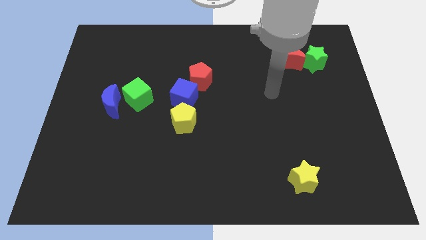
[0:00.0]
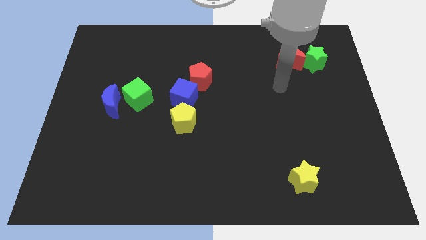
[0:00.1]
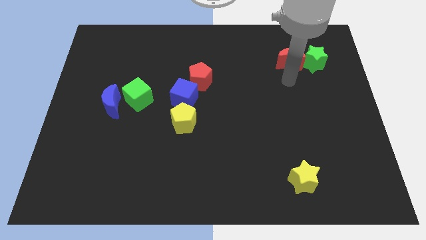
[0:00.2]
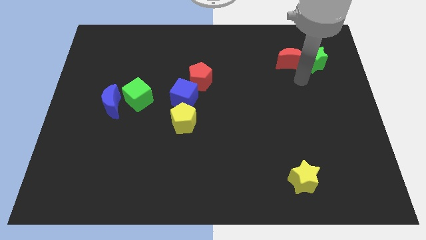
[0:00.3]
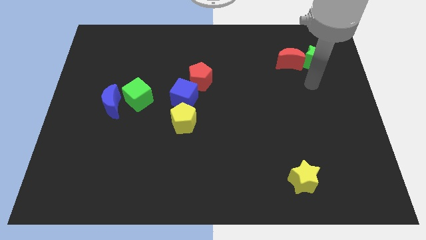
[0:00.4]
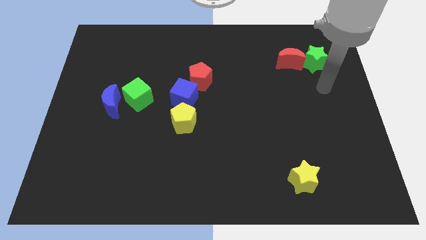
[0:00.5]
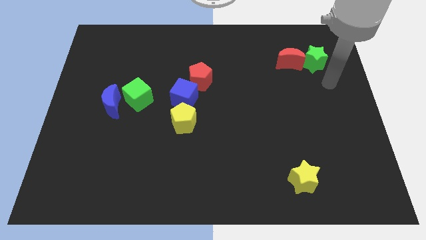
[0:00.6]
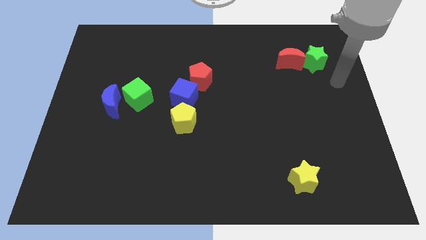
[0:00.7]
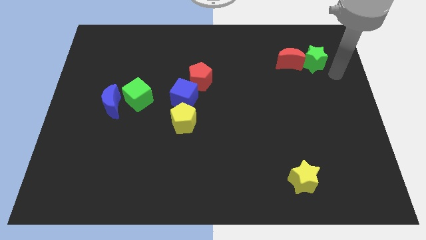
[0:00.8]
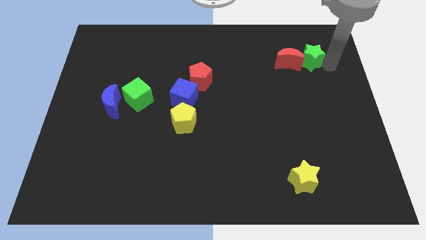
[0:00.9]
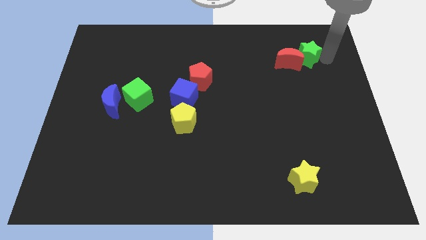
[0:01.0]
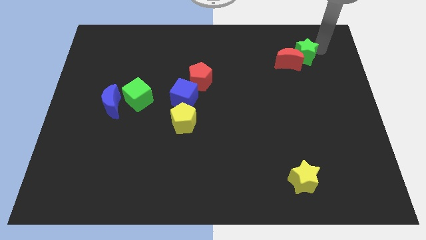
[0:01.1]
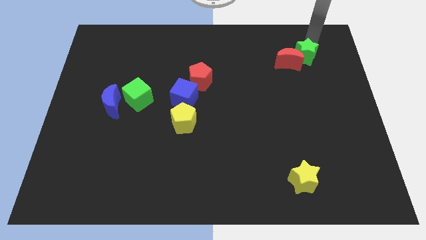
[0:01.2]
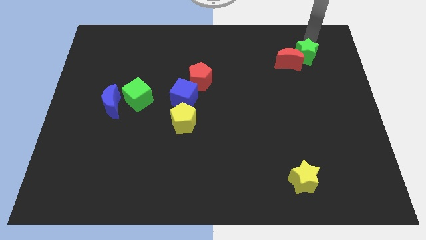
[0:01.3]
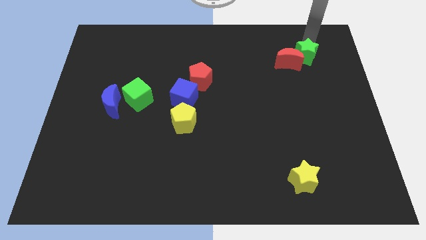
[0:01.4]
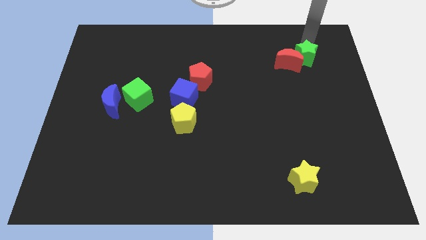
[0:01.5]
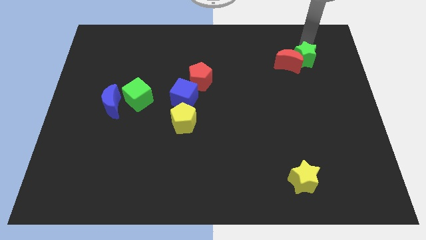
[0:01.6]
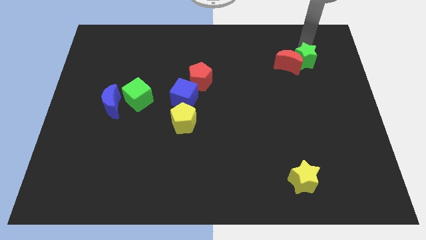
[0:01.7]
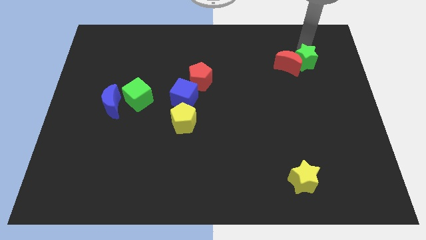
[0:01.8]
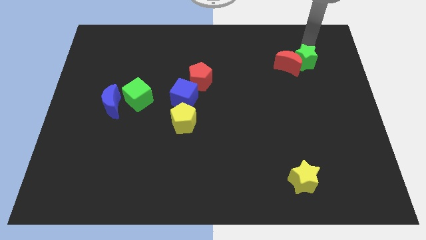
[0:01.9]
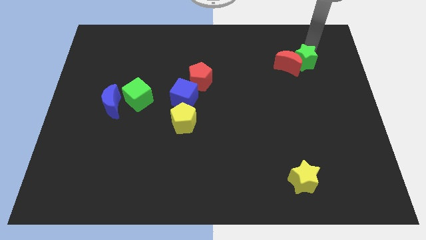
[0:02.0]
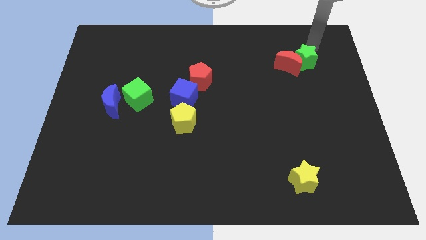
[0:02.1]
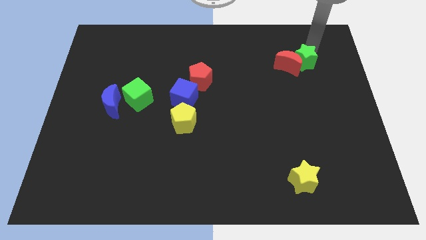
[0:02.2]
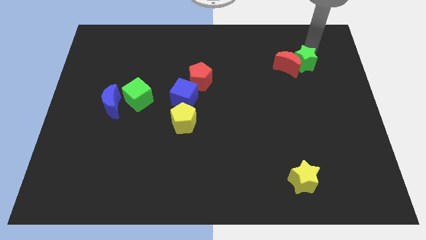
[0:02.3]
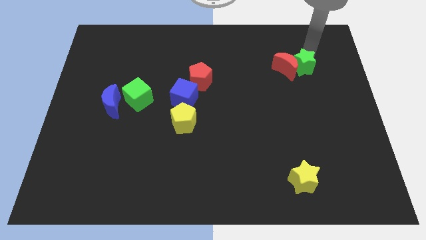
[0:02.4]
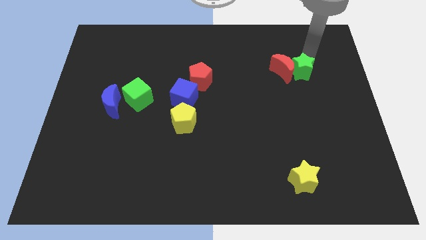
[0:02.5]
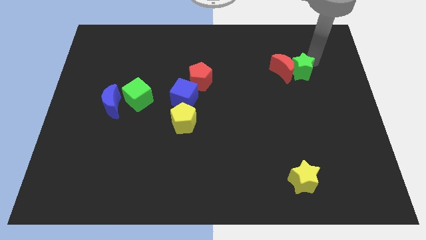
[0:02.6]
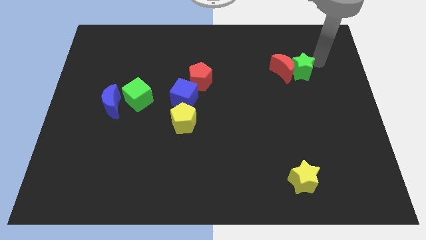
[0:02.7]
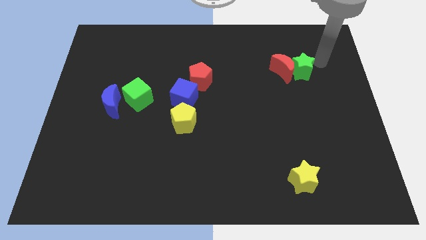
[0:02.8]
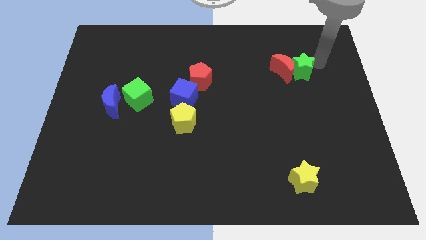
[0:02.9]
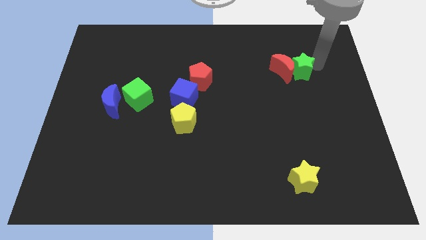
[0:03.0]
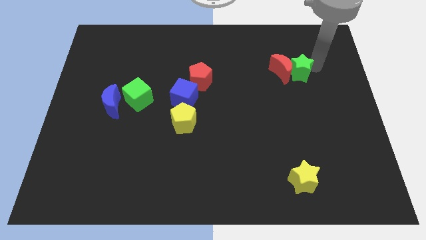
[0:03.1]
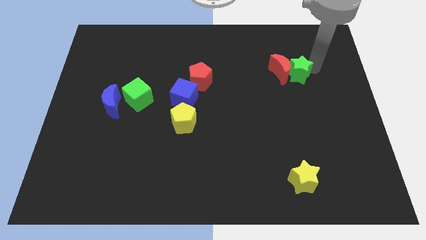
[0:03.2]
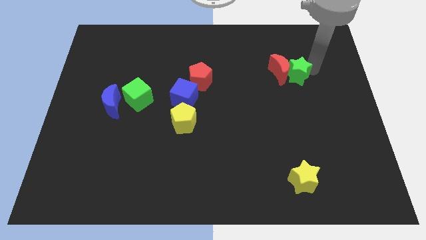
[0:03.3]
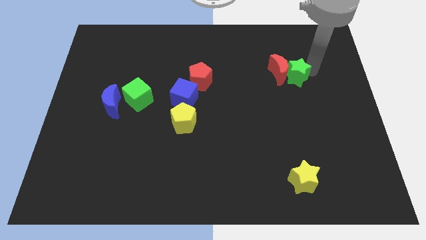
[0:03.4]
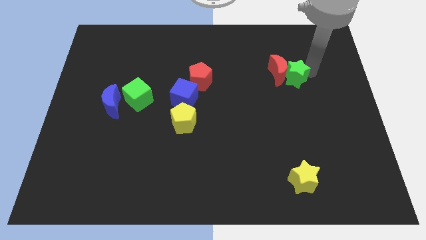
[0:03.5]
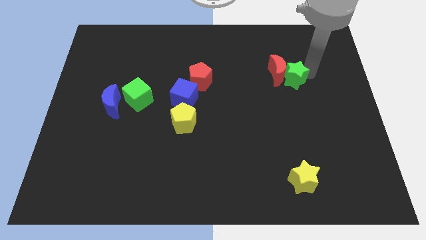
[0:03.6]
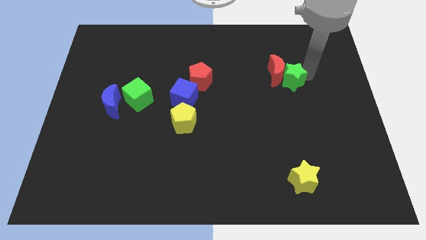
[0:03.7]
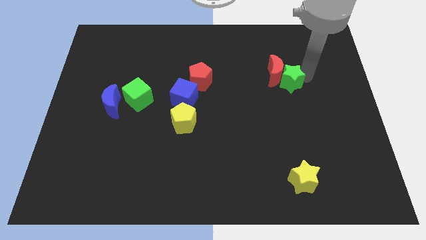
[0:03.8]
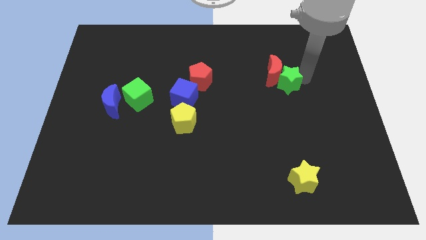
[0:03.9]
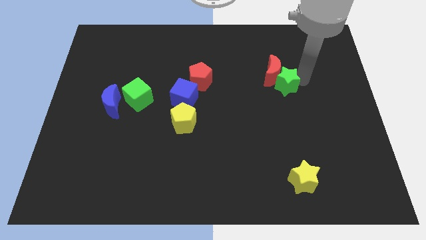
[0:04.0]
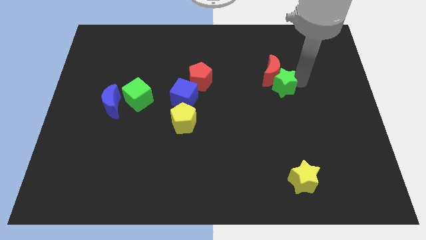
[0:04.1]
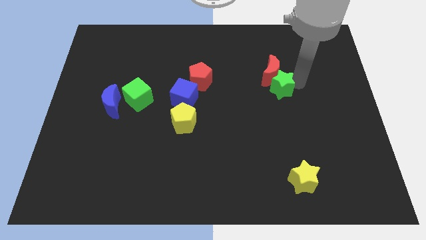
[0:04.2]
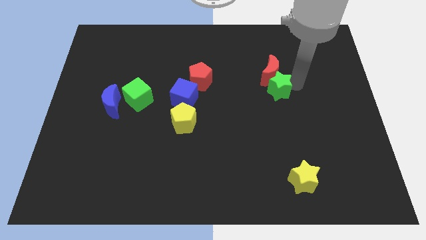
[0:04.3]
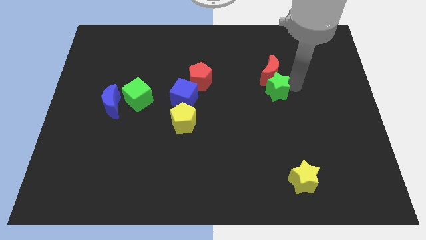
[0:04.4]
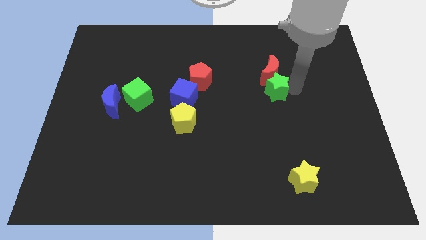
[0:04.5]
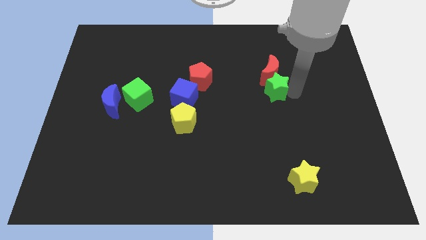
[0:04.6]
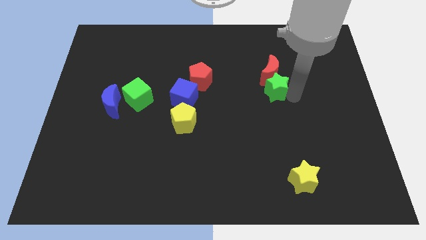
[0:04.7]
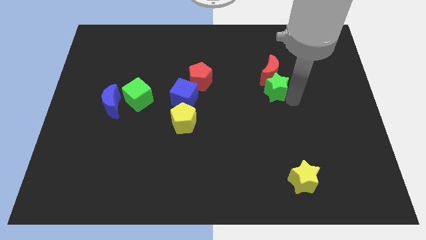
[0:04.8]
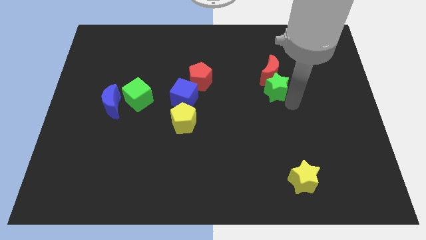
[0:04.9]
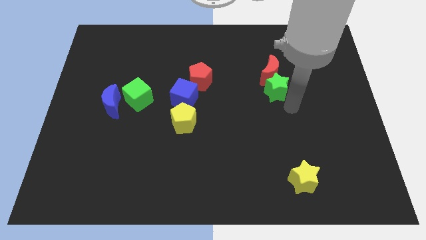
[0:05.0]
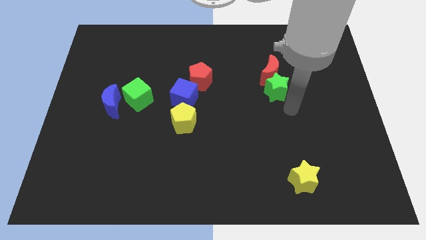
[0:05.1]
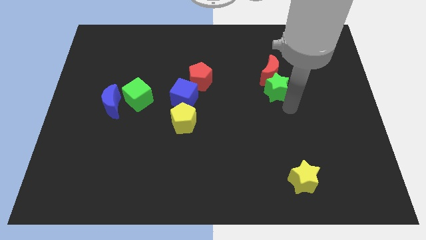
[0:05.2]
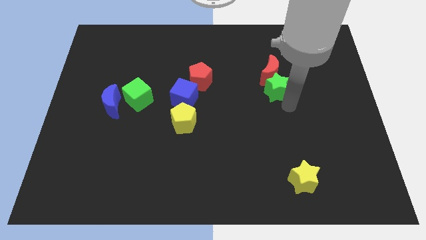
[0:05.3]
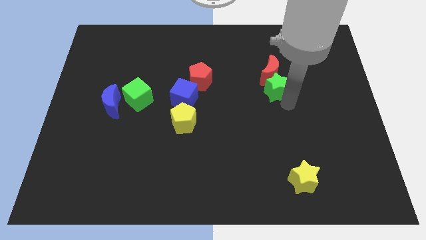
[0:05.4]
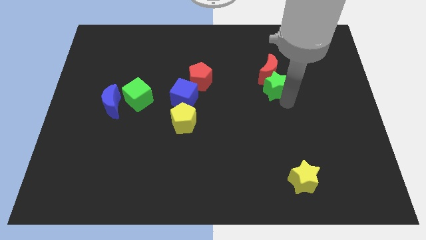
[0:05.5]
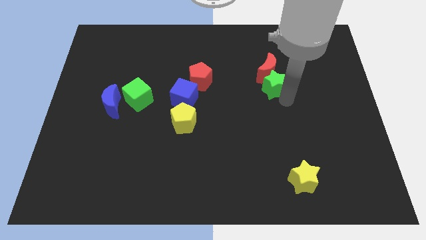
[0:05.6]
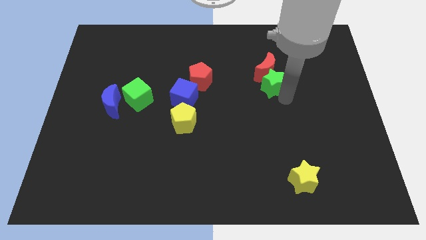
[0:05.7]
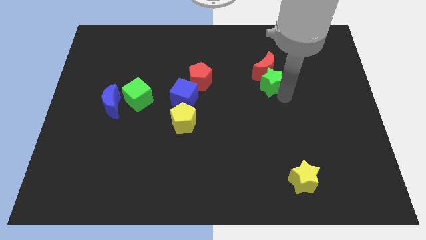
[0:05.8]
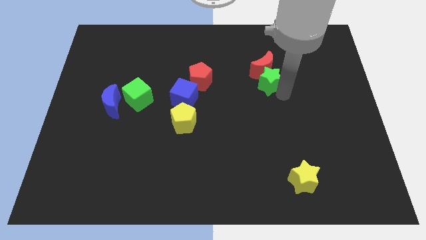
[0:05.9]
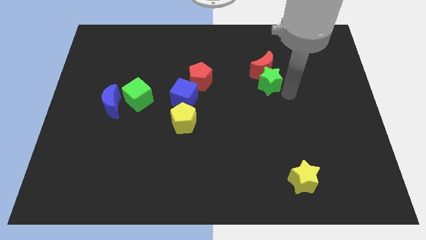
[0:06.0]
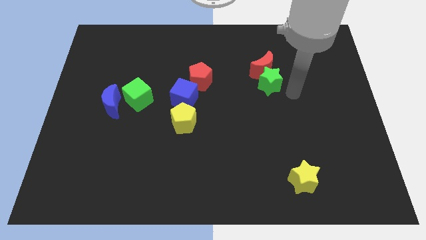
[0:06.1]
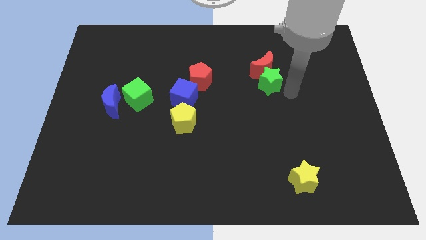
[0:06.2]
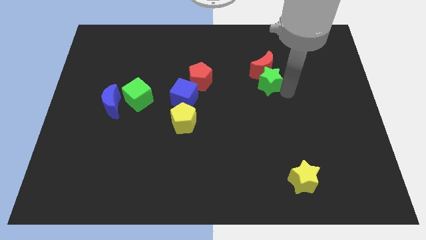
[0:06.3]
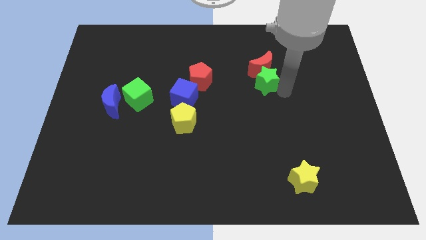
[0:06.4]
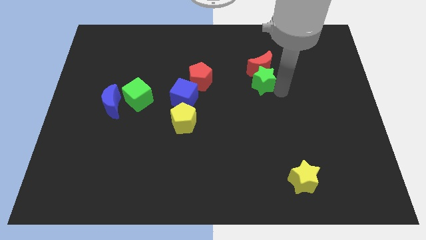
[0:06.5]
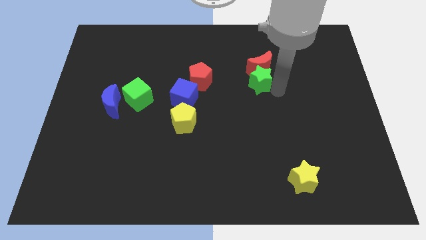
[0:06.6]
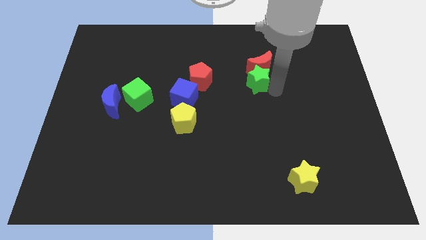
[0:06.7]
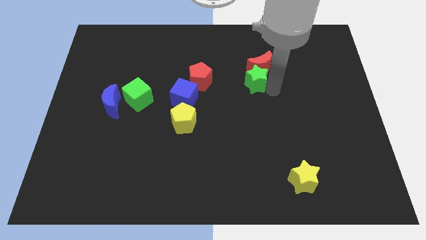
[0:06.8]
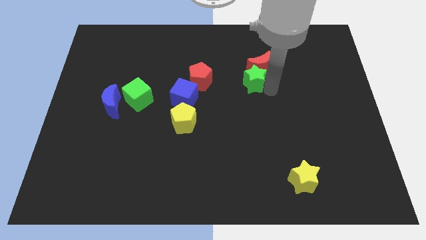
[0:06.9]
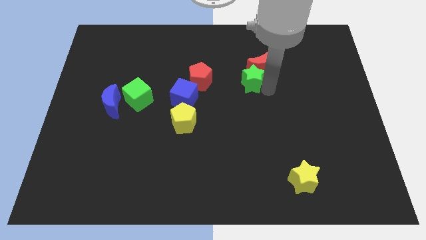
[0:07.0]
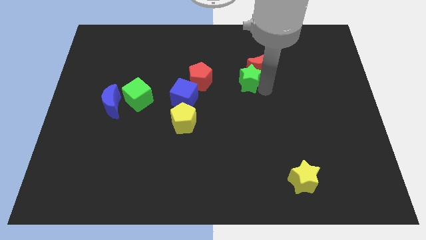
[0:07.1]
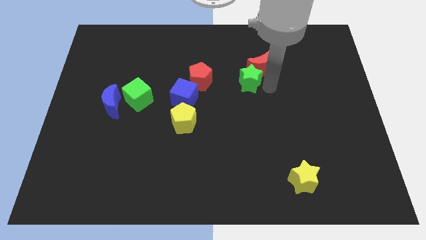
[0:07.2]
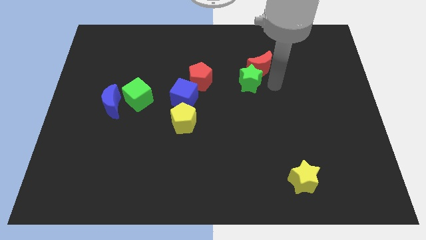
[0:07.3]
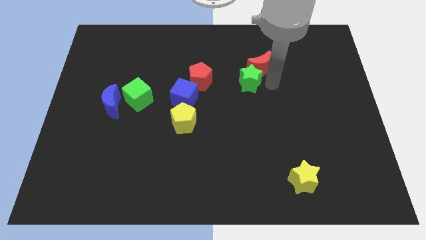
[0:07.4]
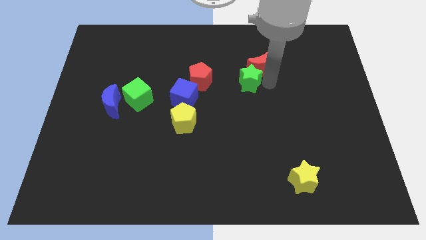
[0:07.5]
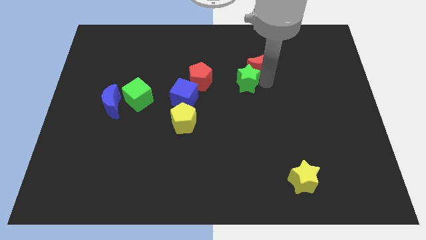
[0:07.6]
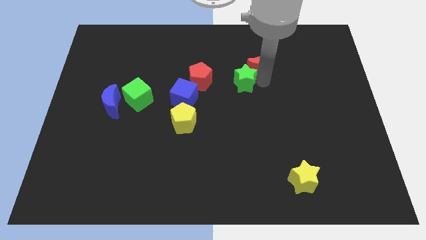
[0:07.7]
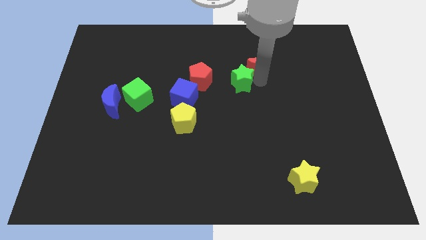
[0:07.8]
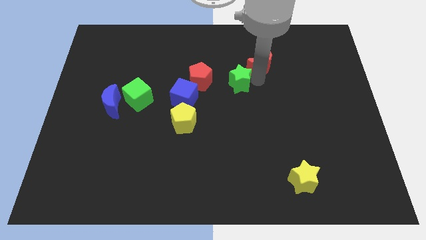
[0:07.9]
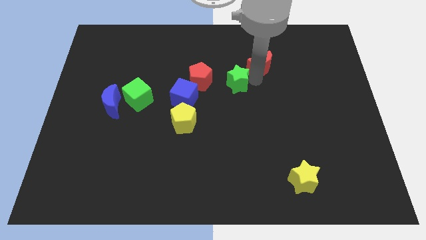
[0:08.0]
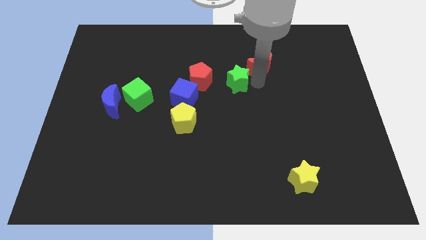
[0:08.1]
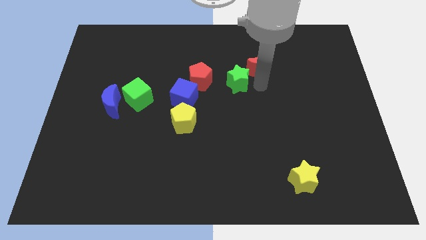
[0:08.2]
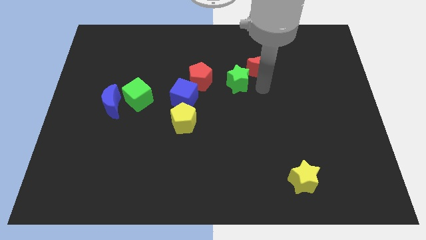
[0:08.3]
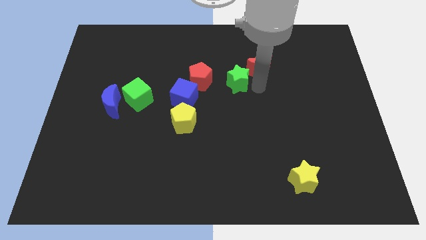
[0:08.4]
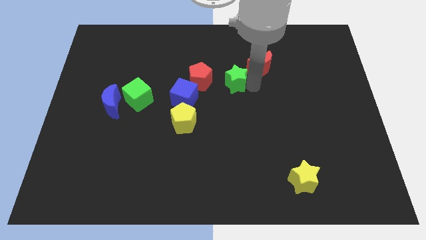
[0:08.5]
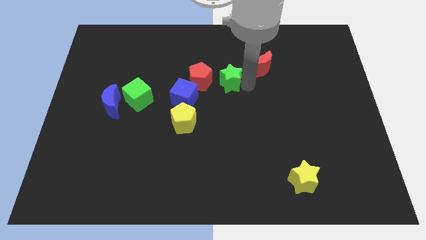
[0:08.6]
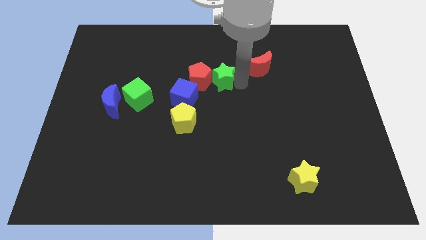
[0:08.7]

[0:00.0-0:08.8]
put the green star to the red pentagon
